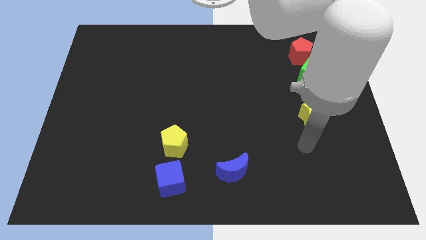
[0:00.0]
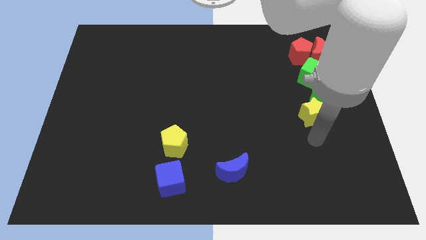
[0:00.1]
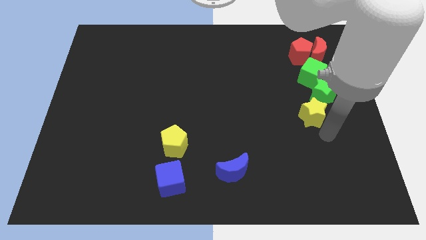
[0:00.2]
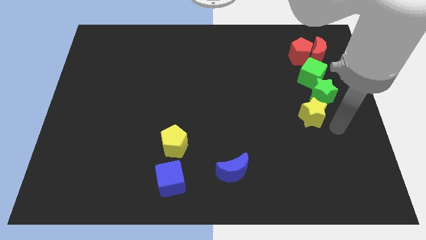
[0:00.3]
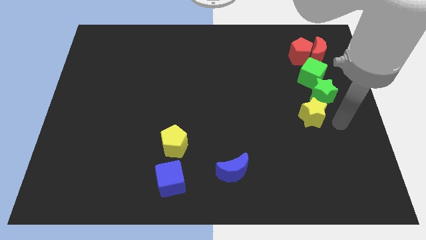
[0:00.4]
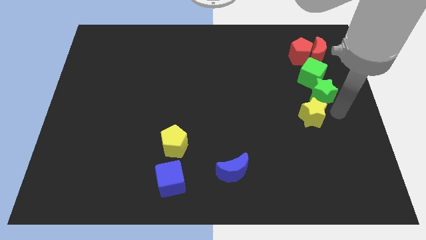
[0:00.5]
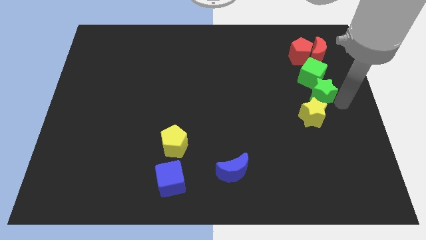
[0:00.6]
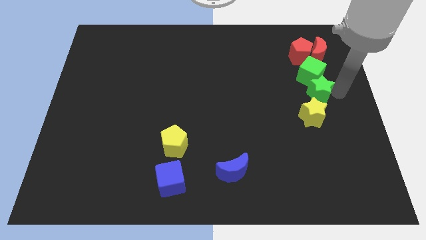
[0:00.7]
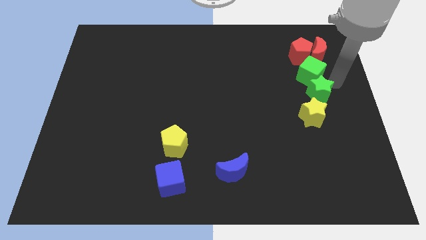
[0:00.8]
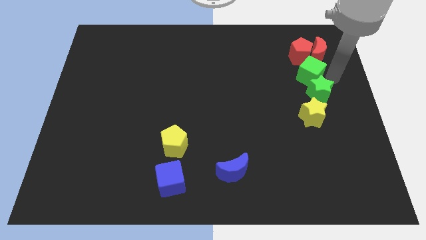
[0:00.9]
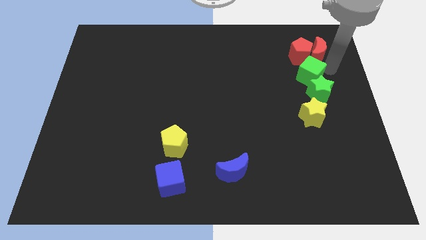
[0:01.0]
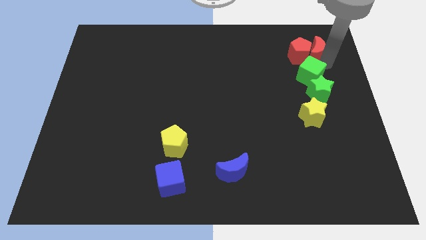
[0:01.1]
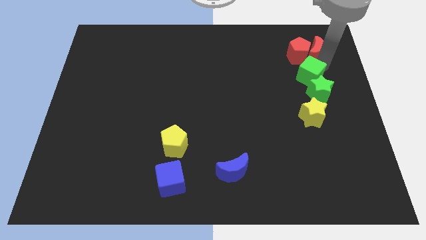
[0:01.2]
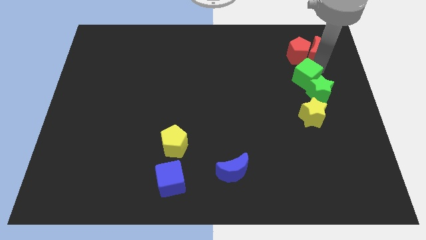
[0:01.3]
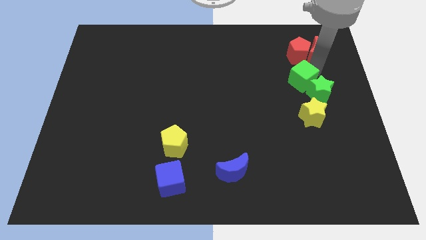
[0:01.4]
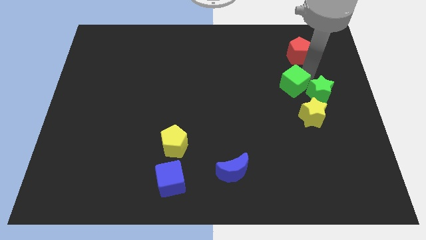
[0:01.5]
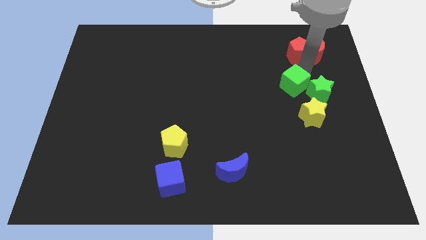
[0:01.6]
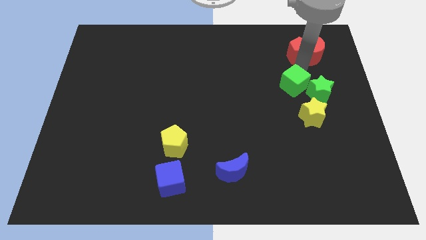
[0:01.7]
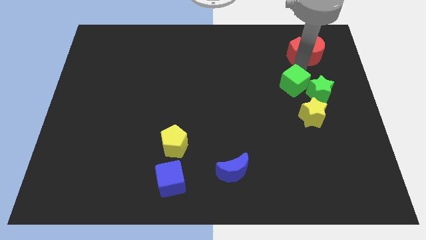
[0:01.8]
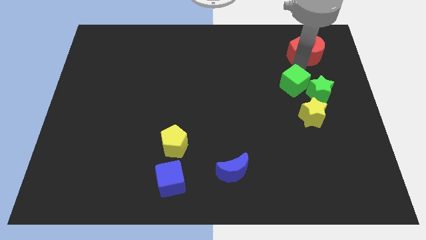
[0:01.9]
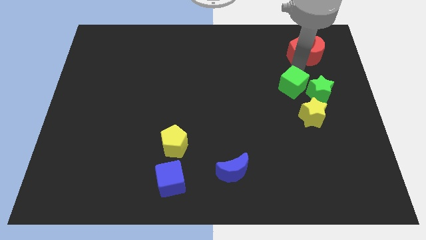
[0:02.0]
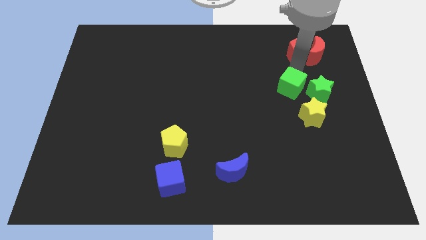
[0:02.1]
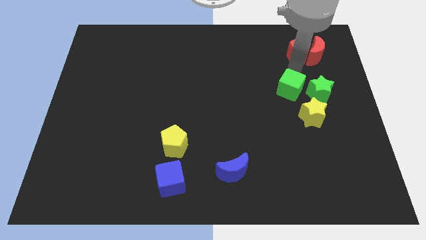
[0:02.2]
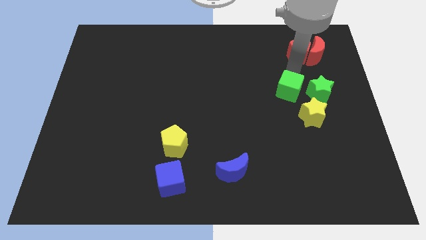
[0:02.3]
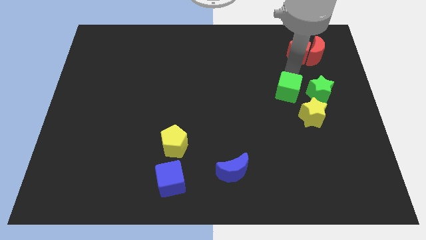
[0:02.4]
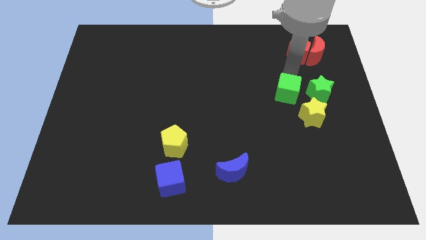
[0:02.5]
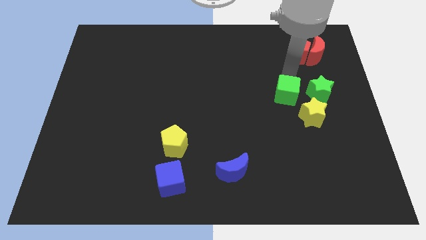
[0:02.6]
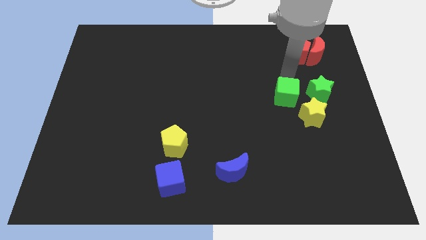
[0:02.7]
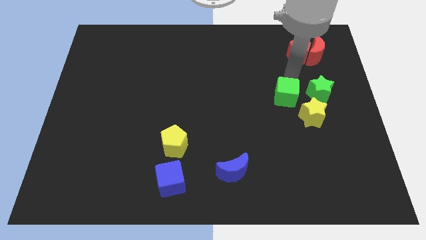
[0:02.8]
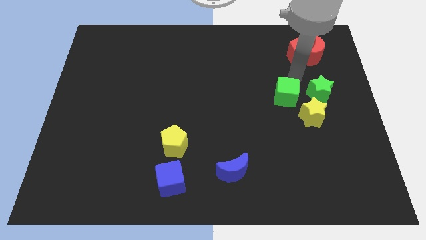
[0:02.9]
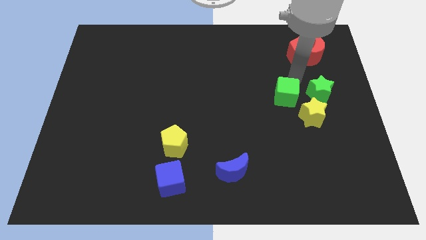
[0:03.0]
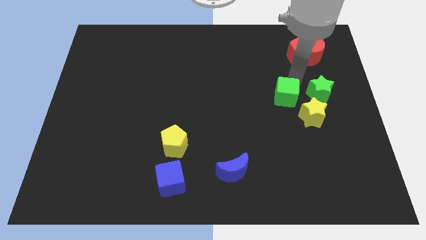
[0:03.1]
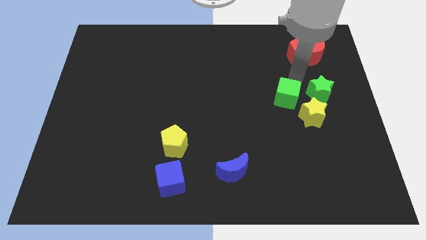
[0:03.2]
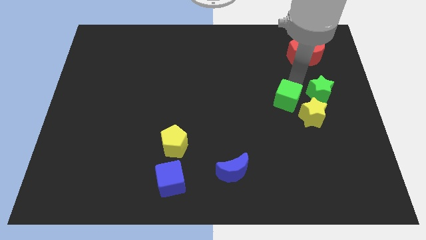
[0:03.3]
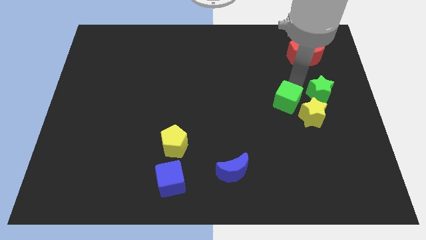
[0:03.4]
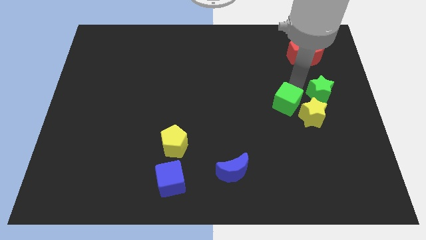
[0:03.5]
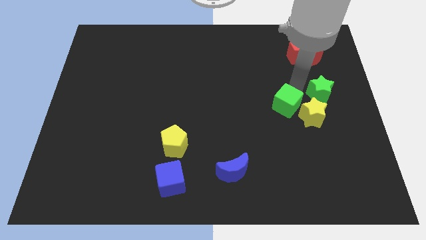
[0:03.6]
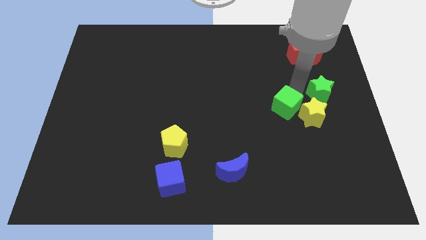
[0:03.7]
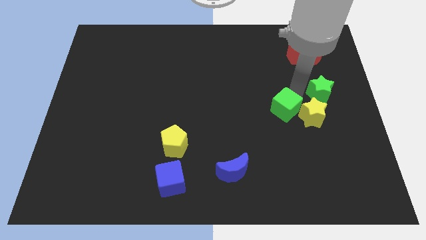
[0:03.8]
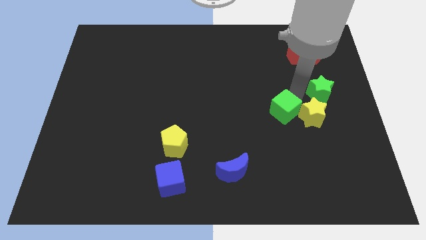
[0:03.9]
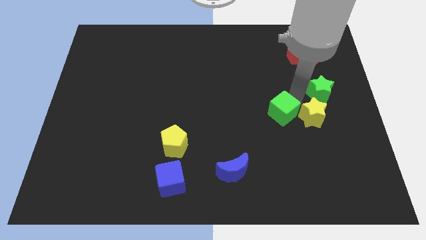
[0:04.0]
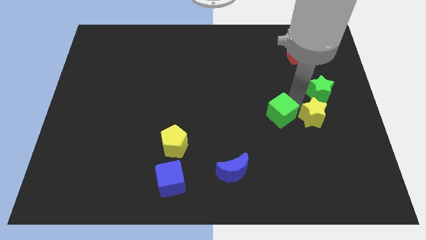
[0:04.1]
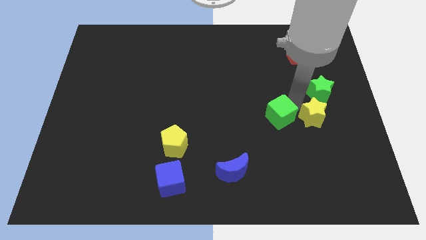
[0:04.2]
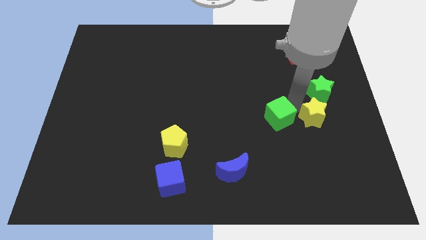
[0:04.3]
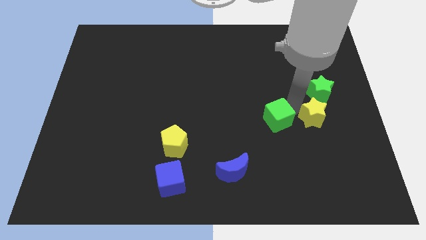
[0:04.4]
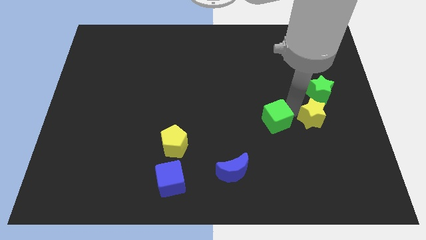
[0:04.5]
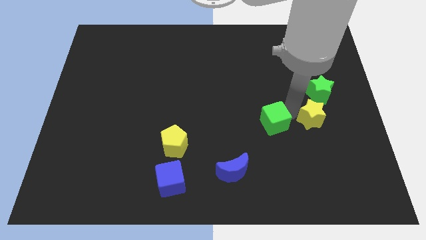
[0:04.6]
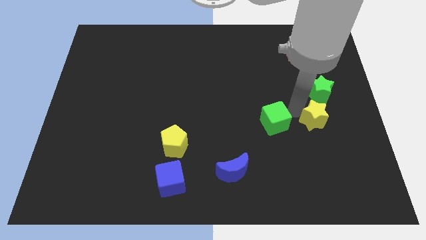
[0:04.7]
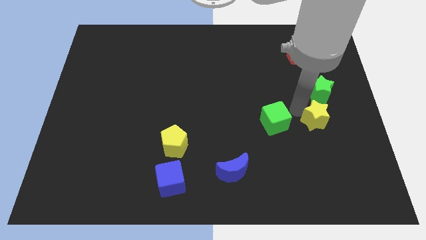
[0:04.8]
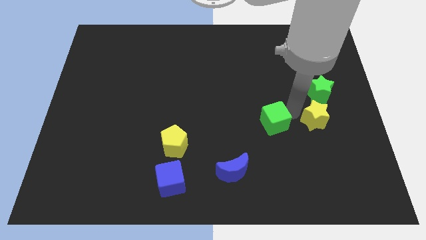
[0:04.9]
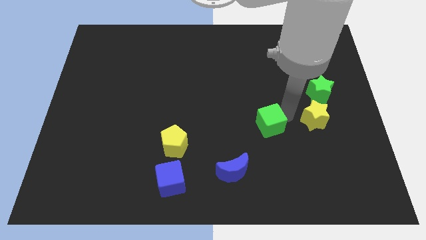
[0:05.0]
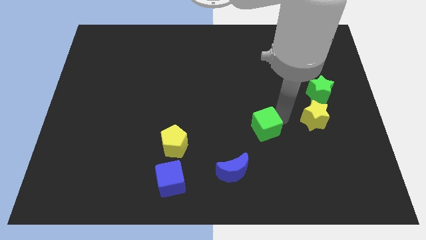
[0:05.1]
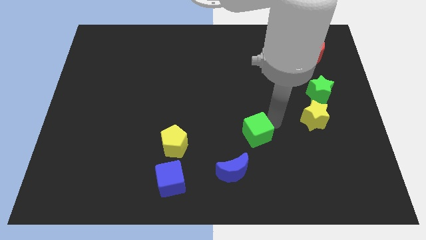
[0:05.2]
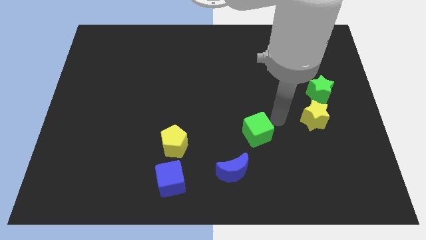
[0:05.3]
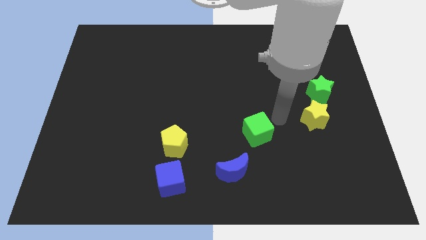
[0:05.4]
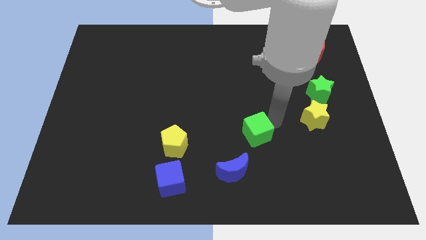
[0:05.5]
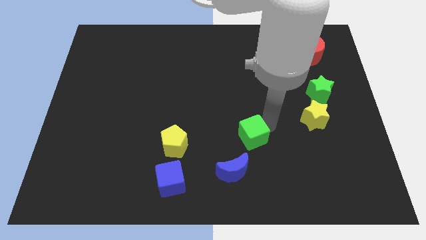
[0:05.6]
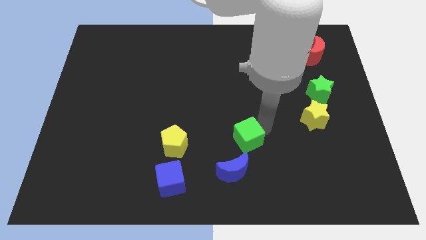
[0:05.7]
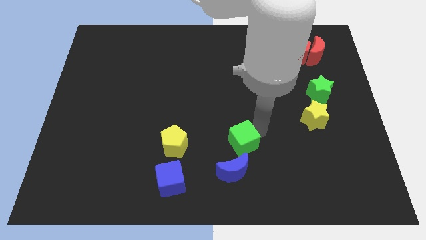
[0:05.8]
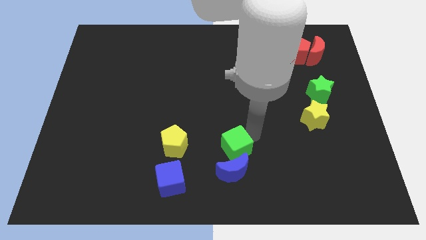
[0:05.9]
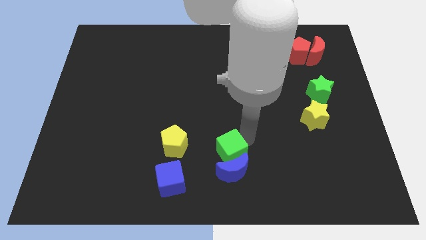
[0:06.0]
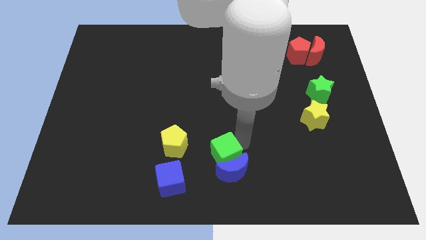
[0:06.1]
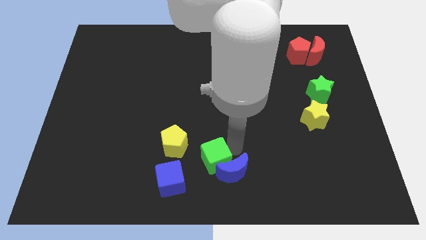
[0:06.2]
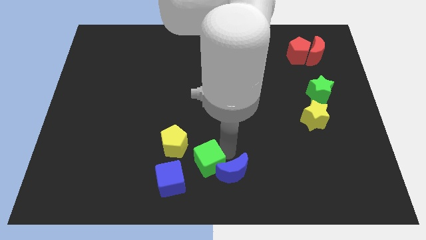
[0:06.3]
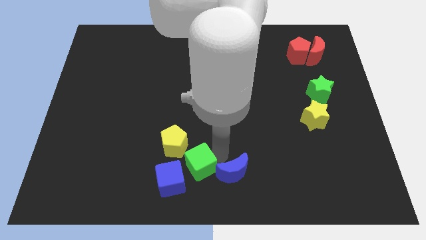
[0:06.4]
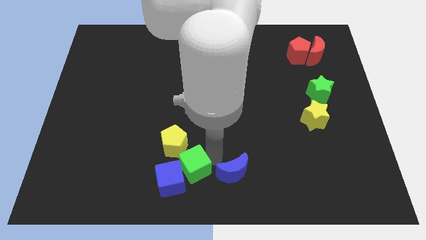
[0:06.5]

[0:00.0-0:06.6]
move the green cube to the blue cube
